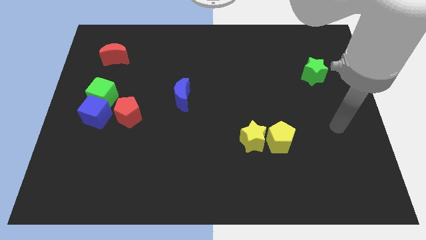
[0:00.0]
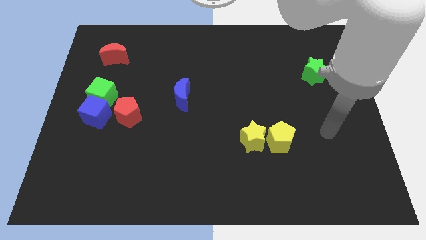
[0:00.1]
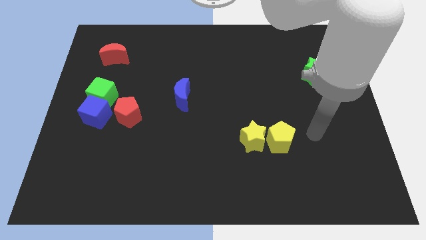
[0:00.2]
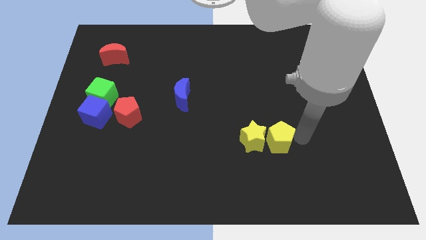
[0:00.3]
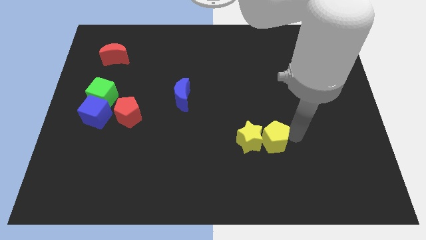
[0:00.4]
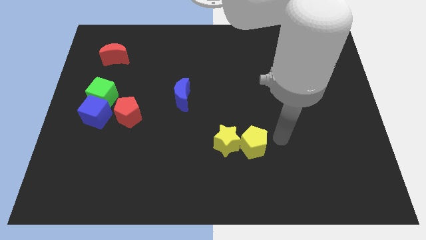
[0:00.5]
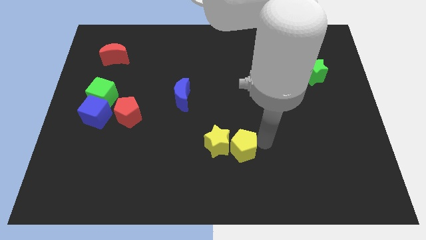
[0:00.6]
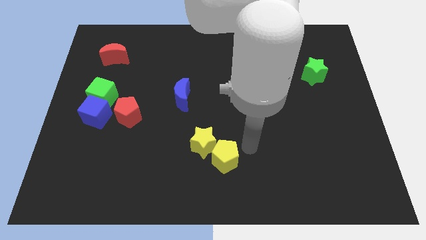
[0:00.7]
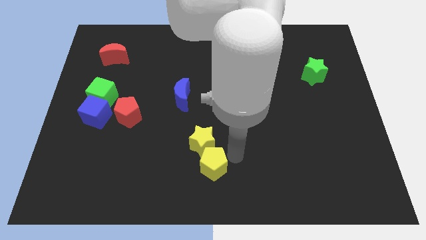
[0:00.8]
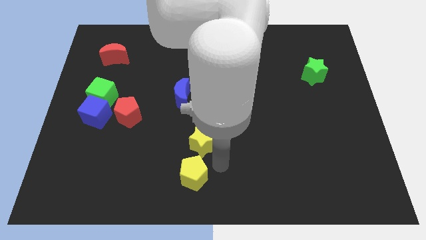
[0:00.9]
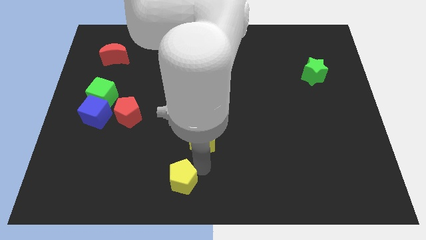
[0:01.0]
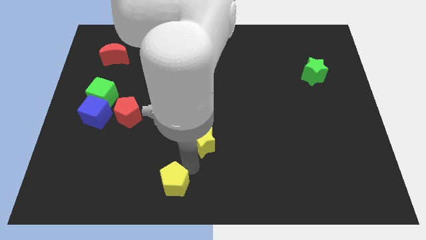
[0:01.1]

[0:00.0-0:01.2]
move the yellow star away from the yellow pentagon

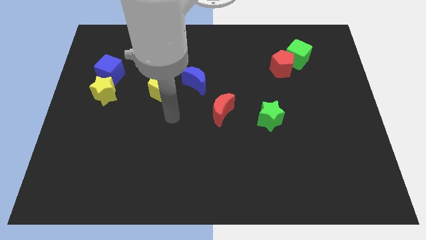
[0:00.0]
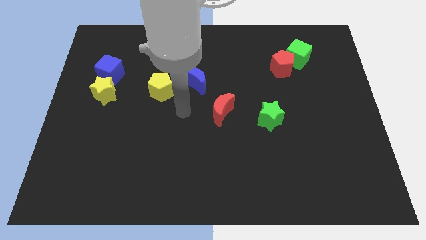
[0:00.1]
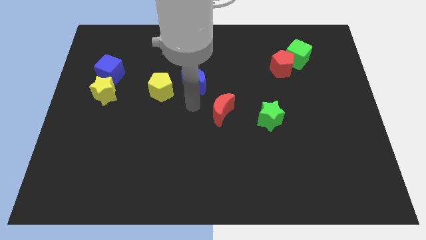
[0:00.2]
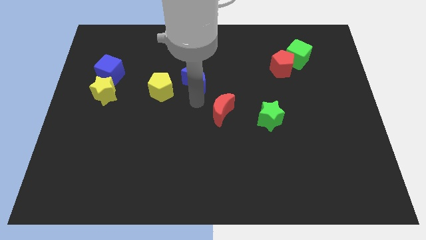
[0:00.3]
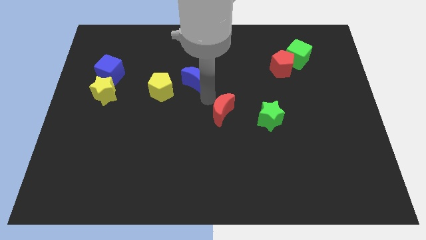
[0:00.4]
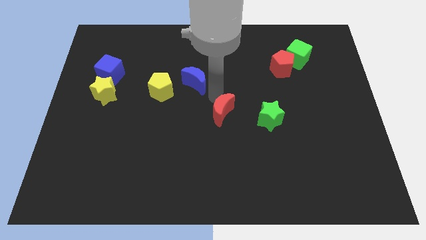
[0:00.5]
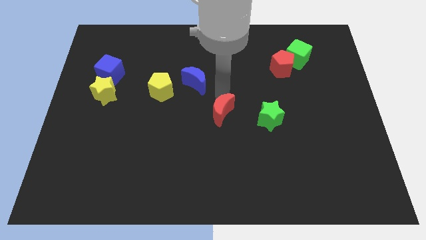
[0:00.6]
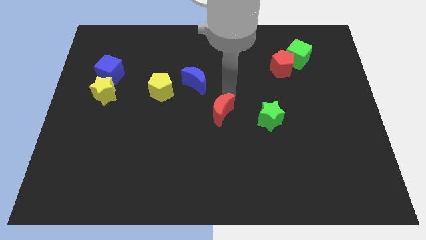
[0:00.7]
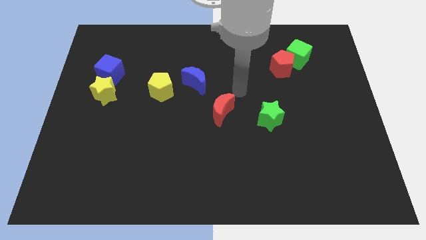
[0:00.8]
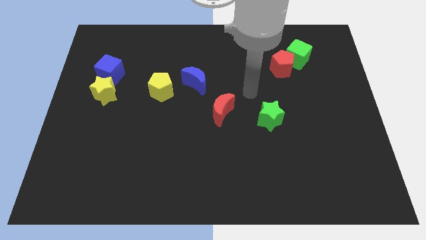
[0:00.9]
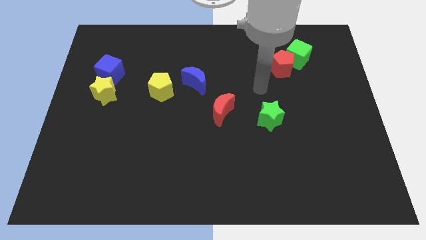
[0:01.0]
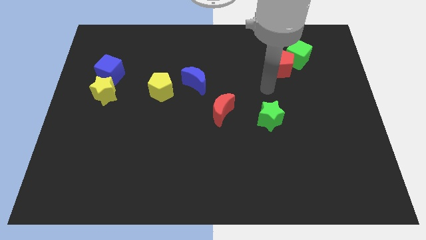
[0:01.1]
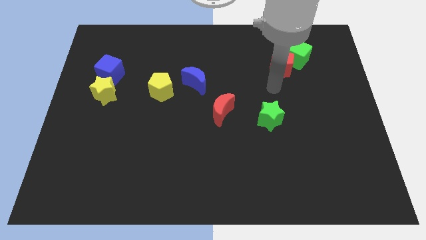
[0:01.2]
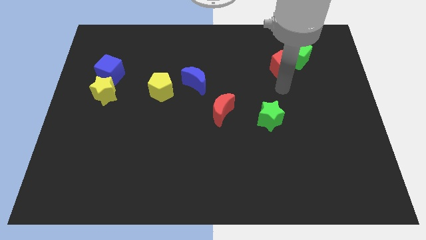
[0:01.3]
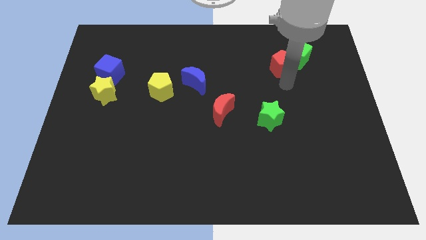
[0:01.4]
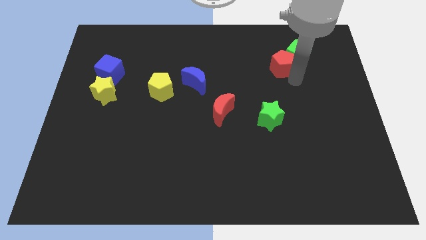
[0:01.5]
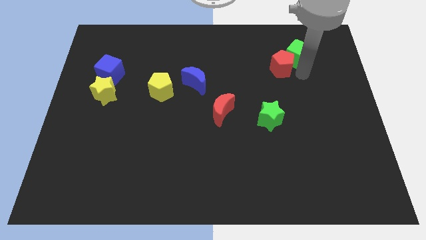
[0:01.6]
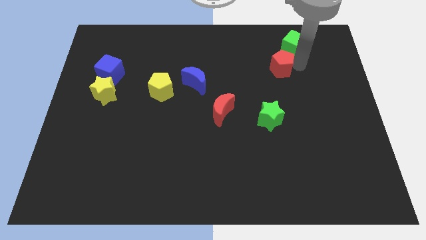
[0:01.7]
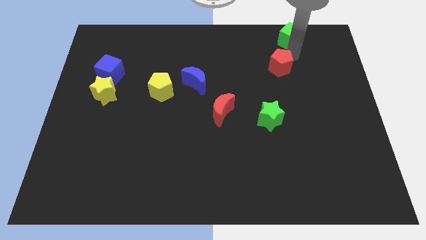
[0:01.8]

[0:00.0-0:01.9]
pull the red pentagon apart from the green cube

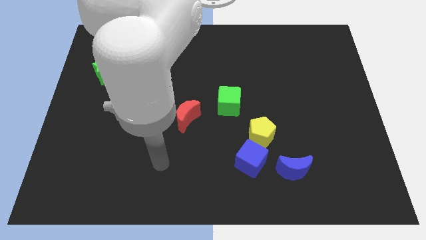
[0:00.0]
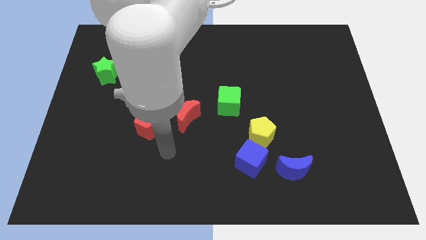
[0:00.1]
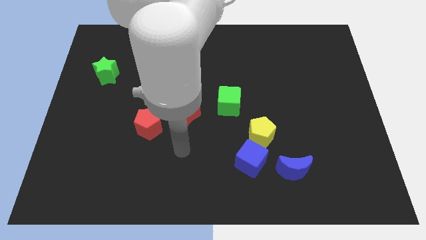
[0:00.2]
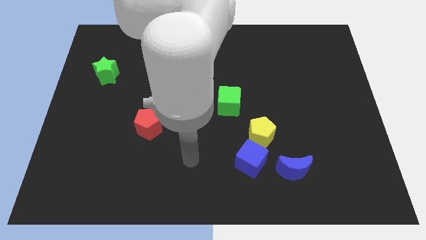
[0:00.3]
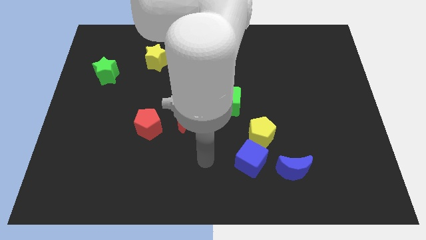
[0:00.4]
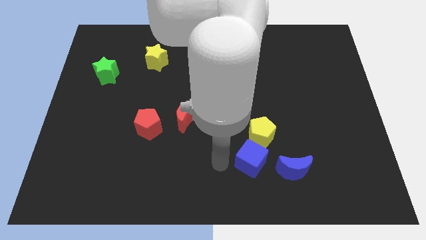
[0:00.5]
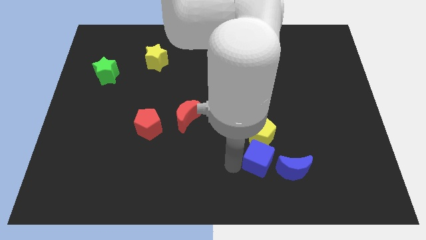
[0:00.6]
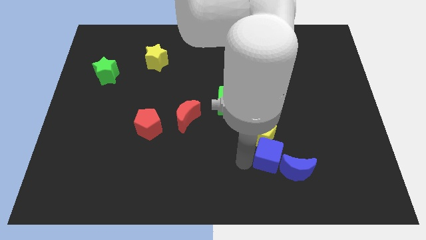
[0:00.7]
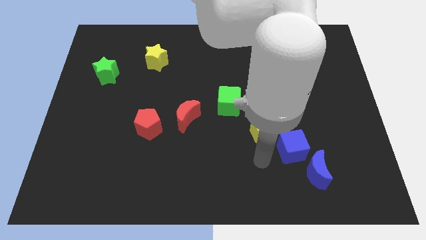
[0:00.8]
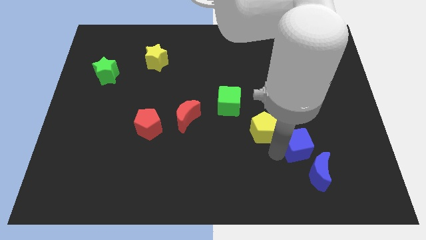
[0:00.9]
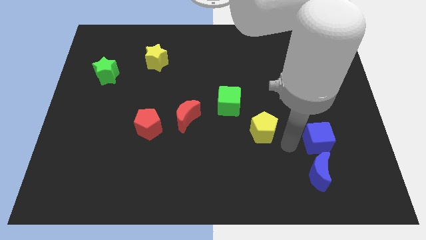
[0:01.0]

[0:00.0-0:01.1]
pull the yellow pentagon apart from the blue cube

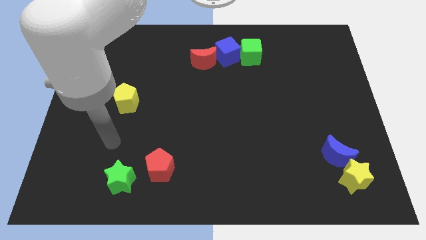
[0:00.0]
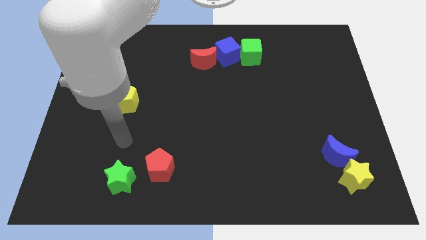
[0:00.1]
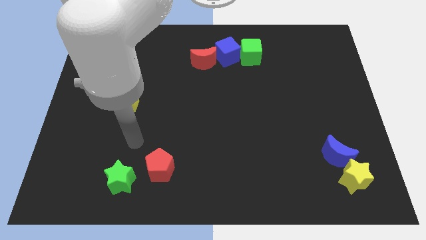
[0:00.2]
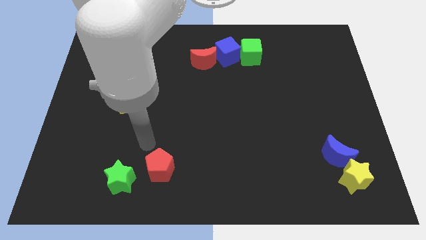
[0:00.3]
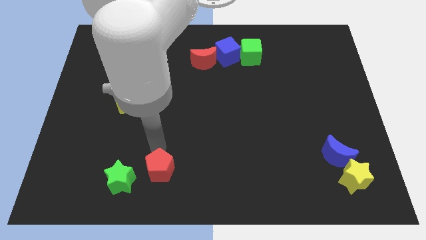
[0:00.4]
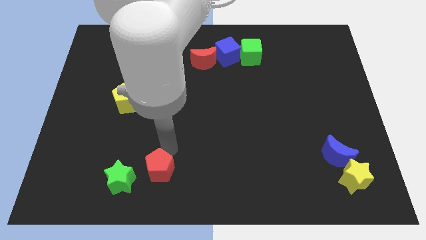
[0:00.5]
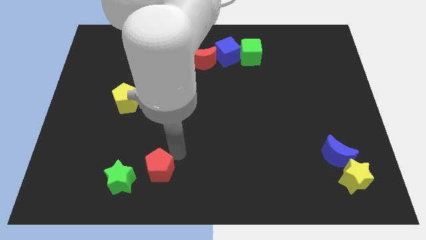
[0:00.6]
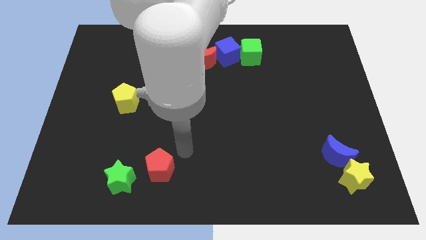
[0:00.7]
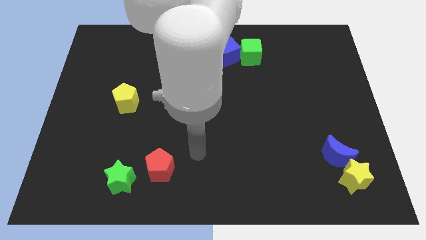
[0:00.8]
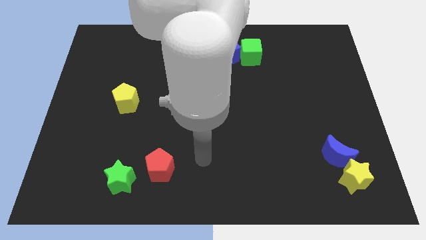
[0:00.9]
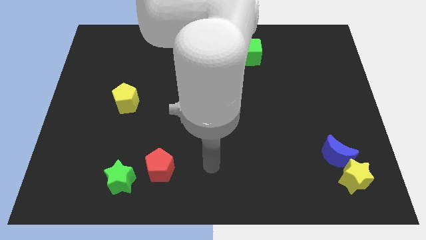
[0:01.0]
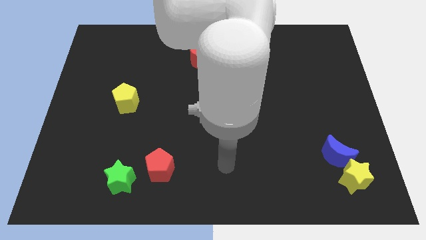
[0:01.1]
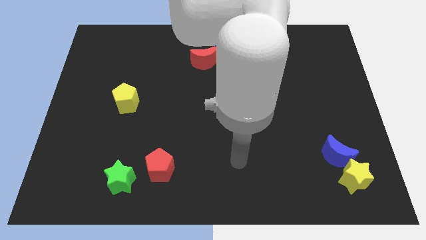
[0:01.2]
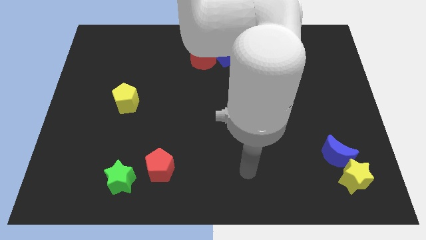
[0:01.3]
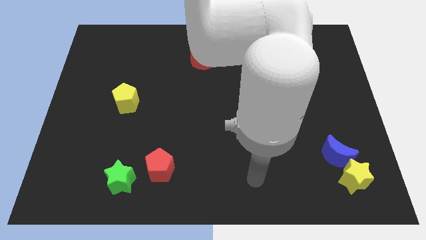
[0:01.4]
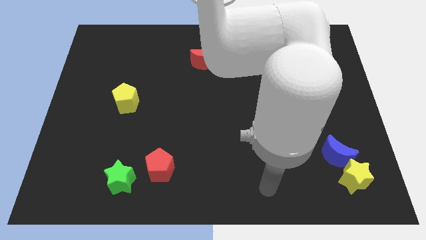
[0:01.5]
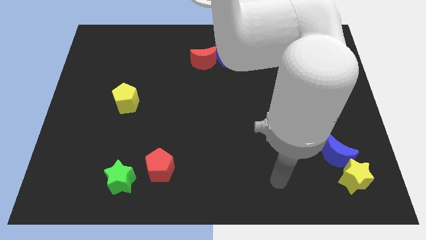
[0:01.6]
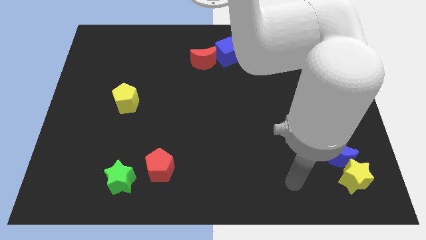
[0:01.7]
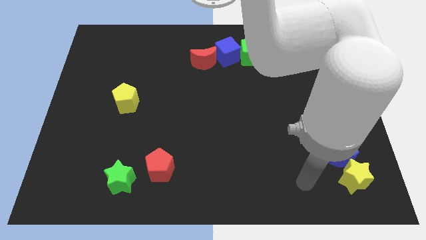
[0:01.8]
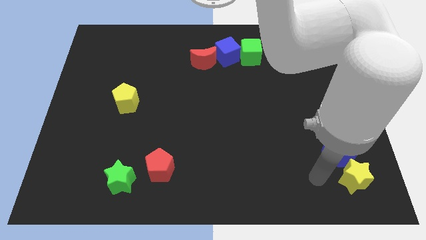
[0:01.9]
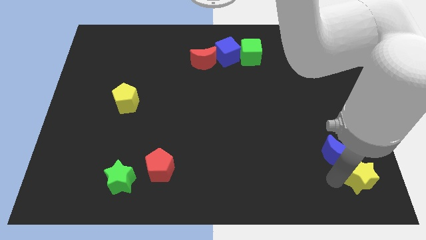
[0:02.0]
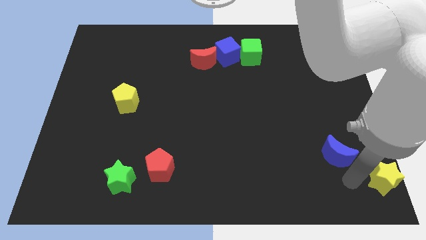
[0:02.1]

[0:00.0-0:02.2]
pull the blue moon apart from the yellow star

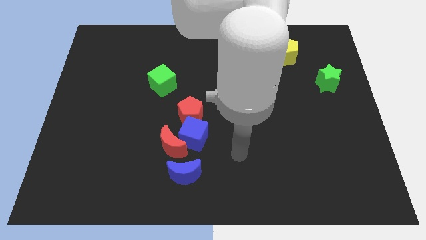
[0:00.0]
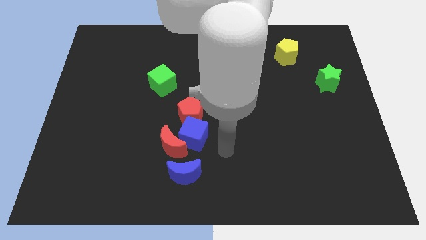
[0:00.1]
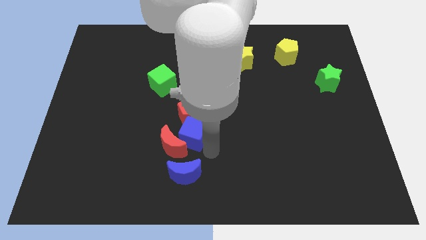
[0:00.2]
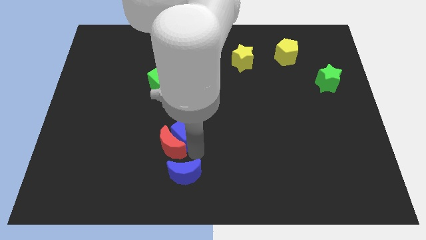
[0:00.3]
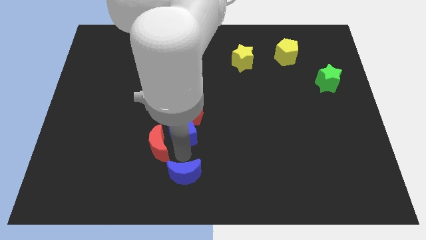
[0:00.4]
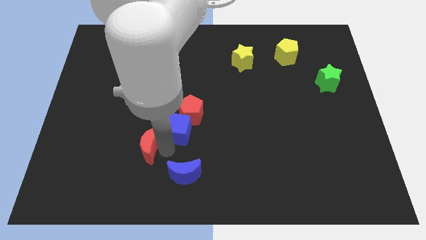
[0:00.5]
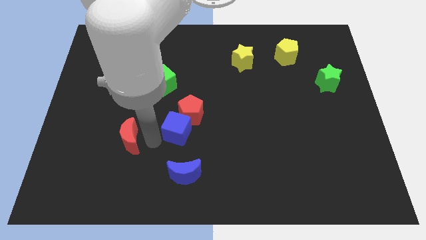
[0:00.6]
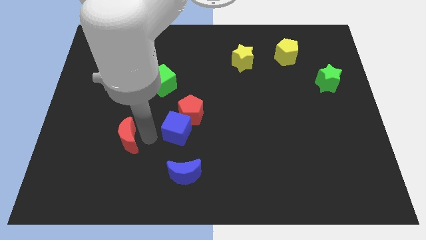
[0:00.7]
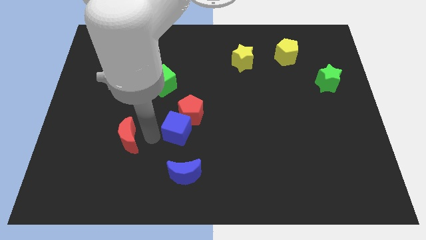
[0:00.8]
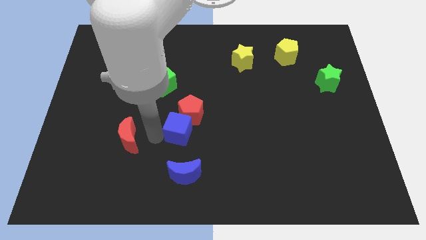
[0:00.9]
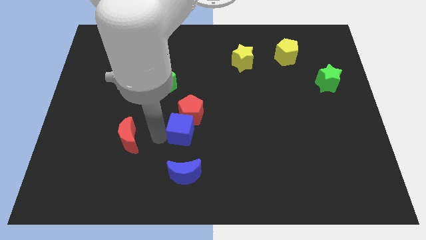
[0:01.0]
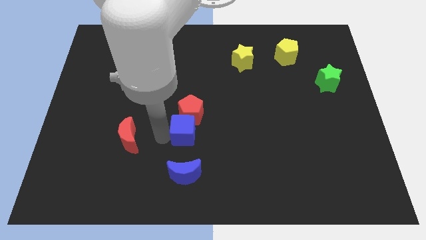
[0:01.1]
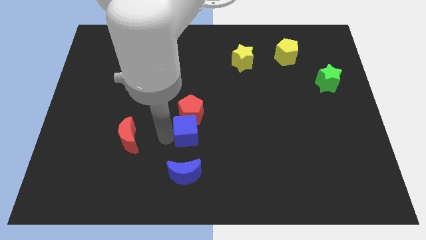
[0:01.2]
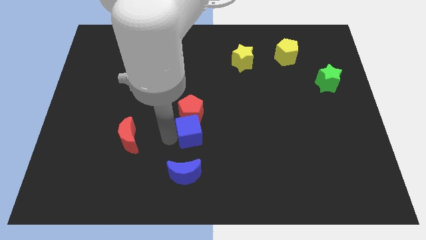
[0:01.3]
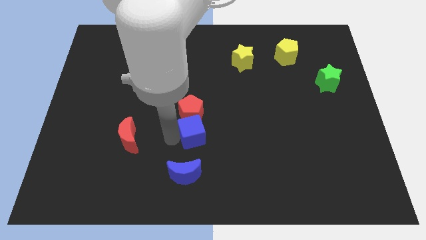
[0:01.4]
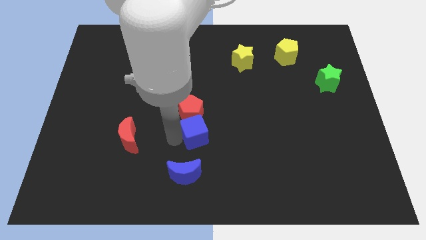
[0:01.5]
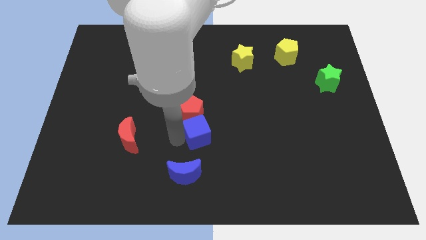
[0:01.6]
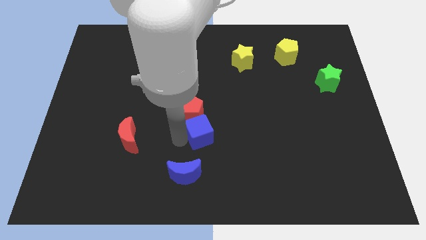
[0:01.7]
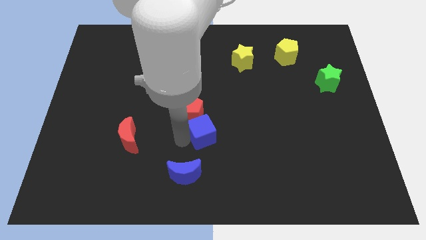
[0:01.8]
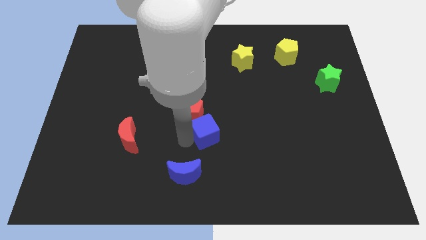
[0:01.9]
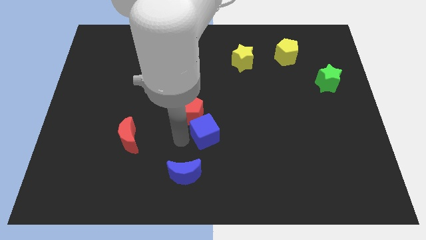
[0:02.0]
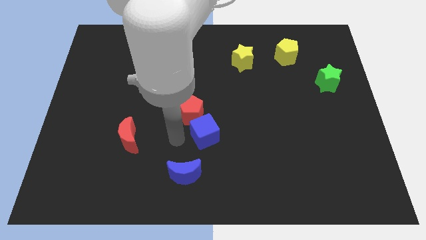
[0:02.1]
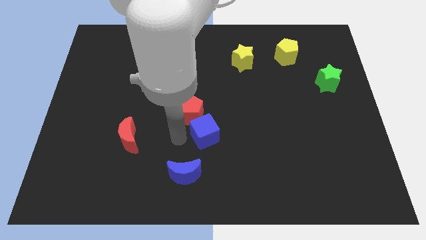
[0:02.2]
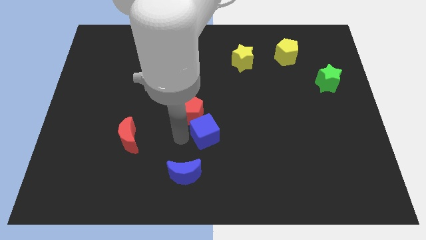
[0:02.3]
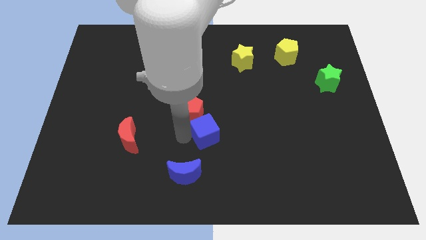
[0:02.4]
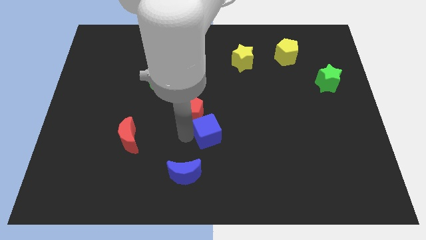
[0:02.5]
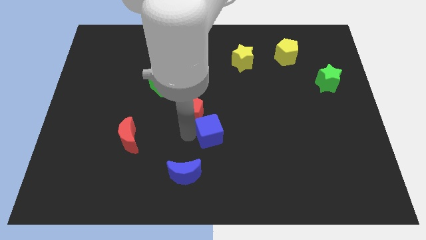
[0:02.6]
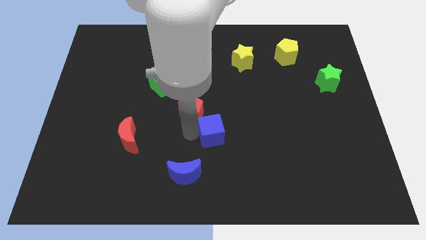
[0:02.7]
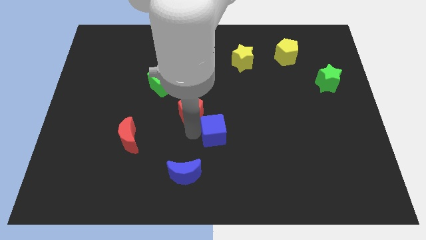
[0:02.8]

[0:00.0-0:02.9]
move the blue cube away from the group of blocks
